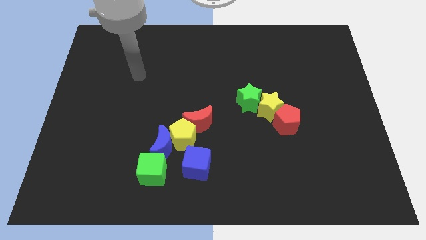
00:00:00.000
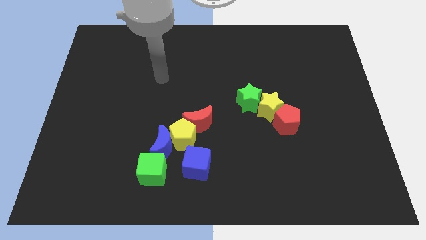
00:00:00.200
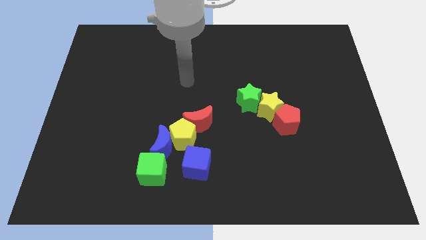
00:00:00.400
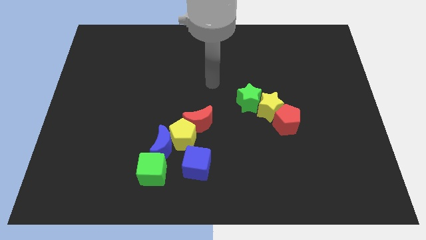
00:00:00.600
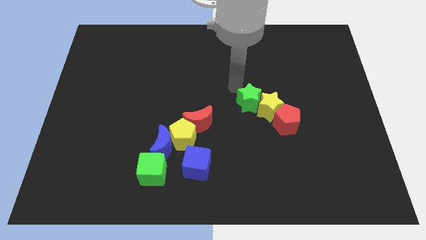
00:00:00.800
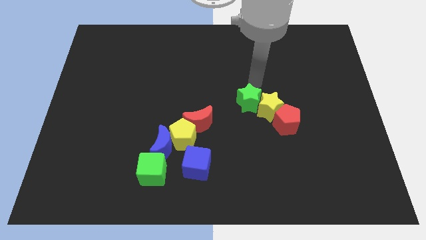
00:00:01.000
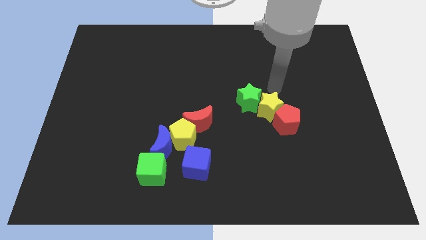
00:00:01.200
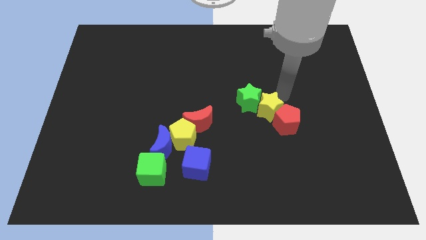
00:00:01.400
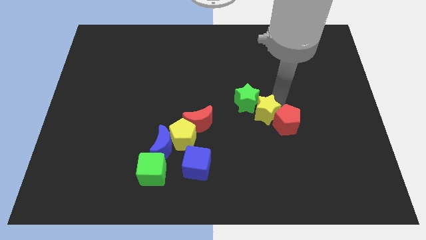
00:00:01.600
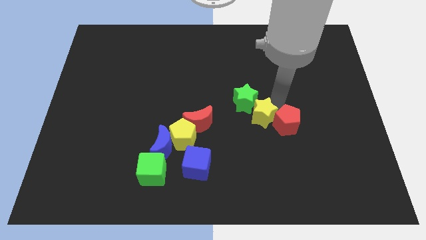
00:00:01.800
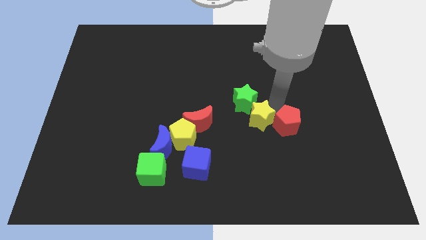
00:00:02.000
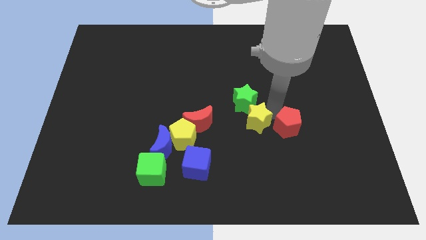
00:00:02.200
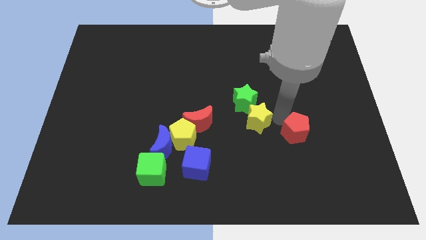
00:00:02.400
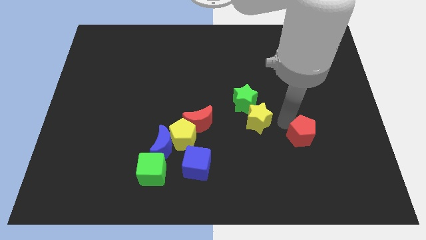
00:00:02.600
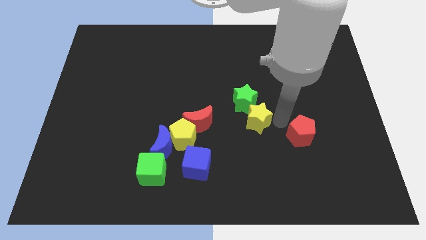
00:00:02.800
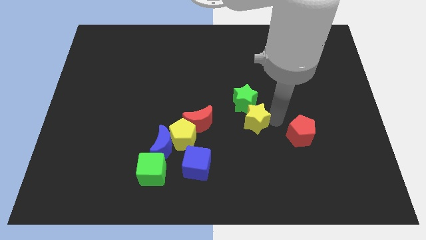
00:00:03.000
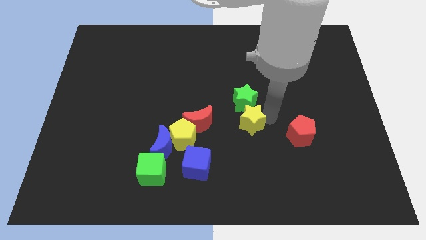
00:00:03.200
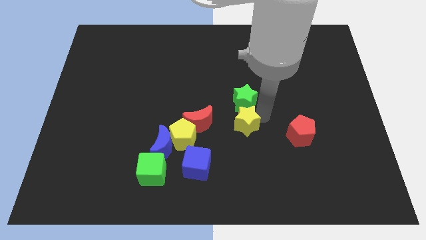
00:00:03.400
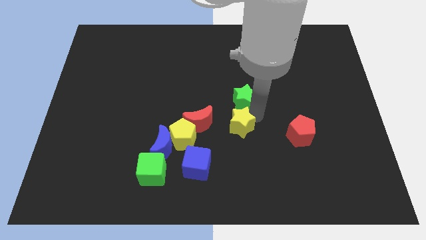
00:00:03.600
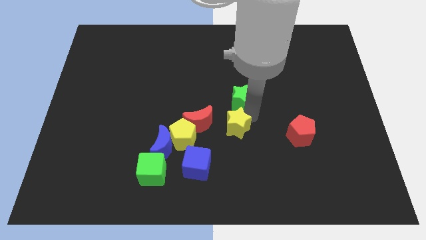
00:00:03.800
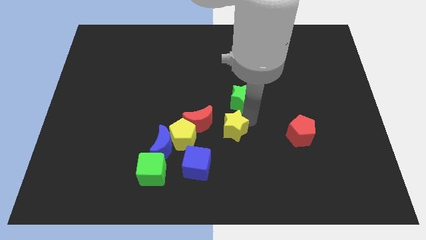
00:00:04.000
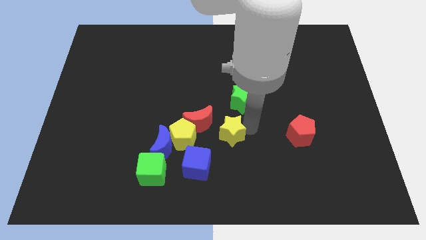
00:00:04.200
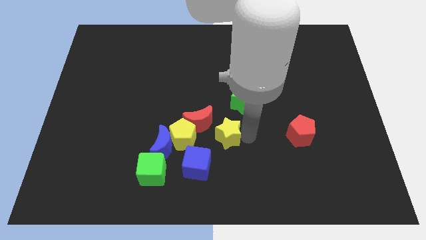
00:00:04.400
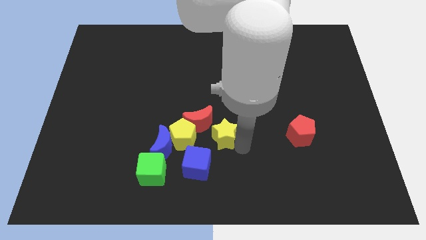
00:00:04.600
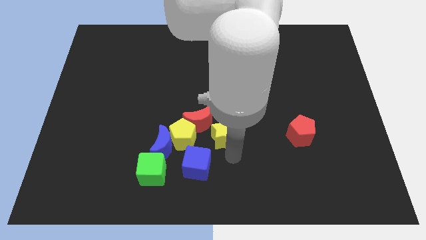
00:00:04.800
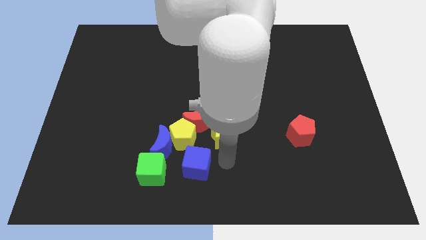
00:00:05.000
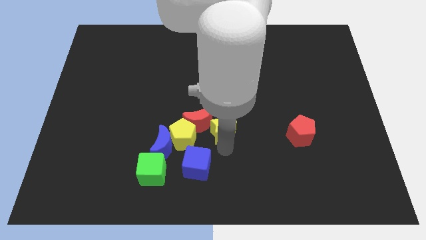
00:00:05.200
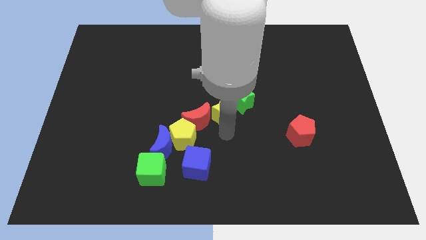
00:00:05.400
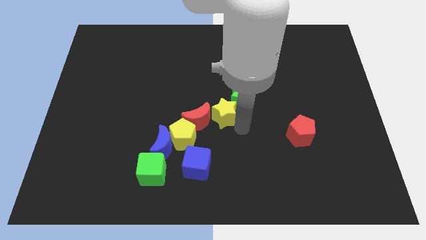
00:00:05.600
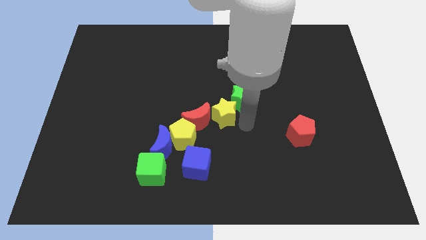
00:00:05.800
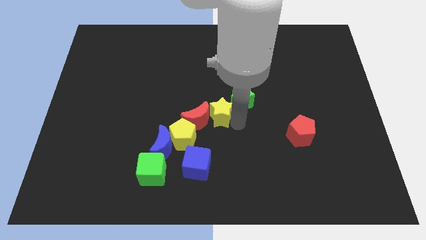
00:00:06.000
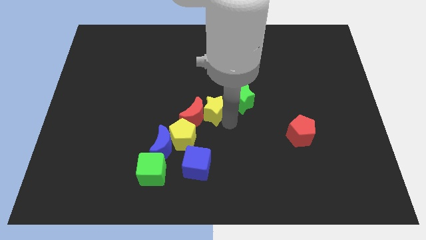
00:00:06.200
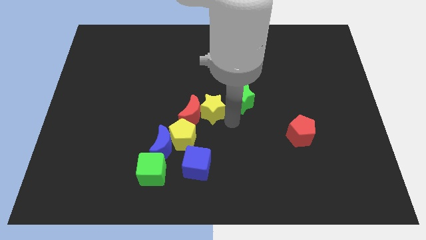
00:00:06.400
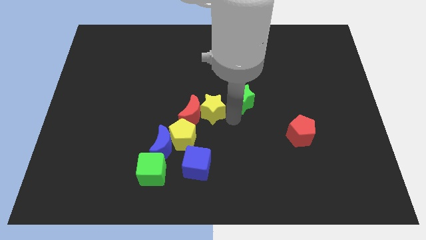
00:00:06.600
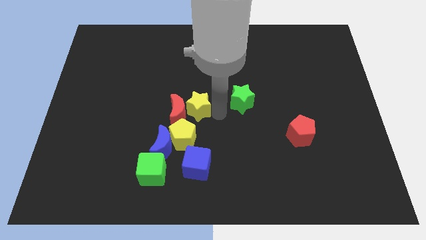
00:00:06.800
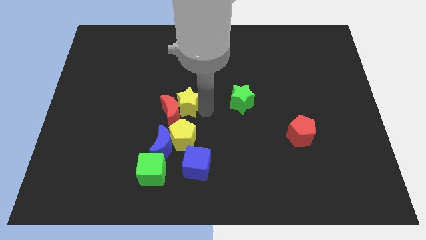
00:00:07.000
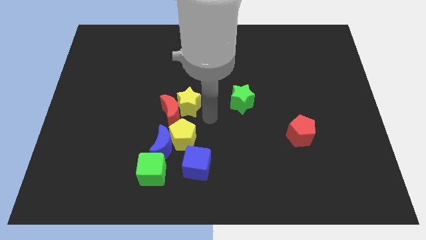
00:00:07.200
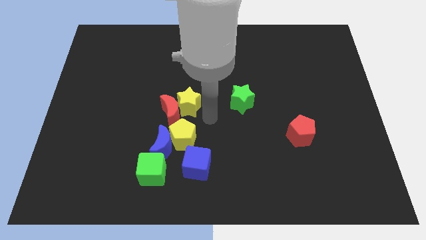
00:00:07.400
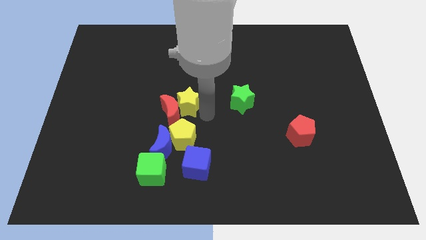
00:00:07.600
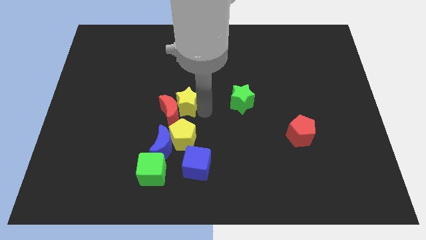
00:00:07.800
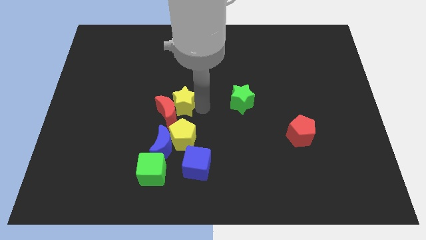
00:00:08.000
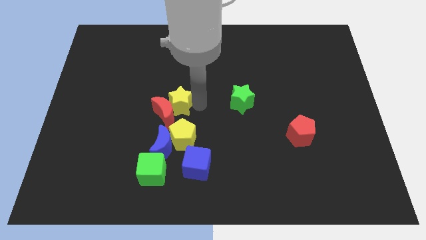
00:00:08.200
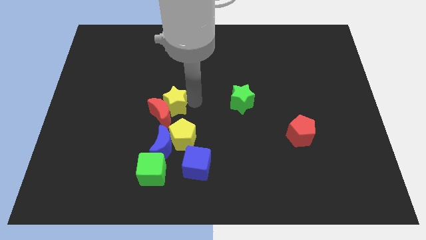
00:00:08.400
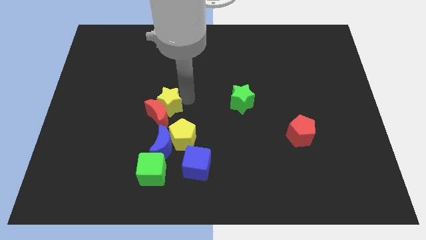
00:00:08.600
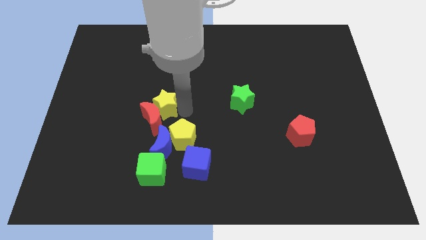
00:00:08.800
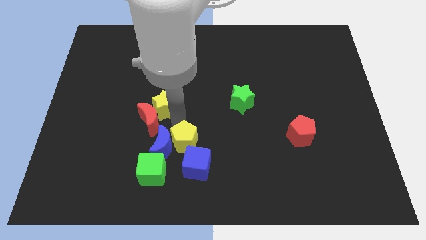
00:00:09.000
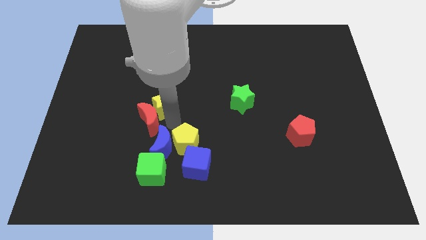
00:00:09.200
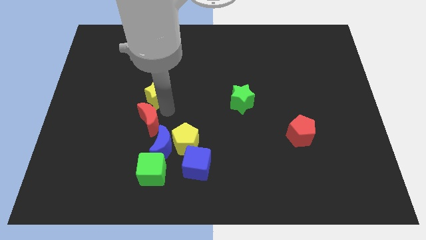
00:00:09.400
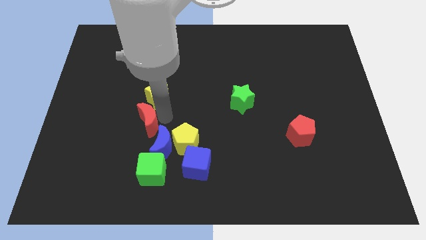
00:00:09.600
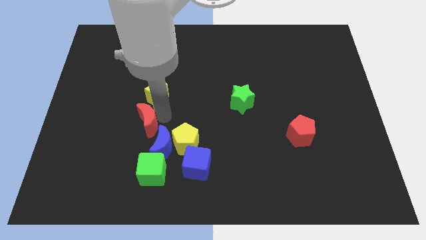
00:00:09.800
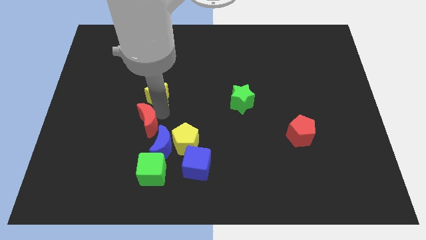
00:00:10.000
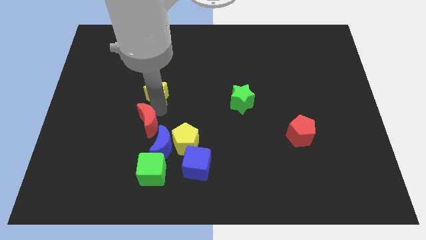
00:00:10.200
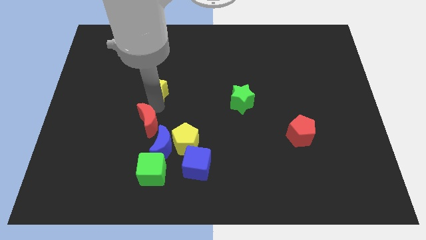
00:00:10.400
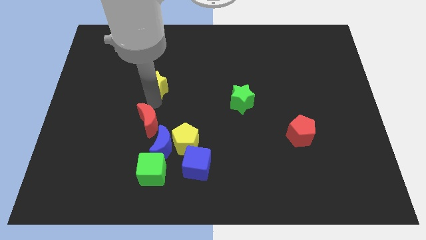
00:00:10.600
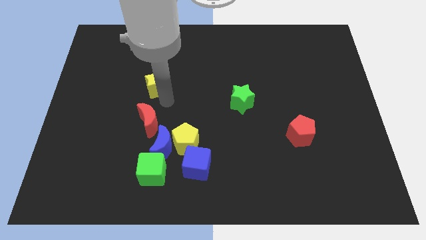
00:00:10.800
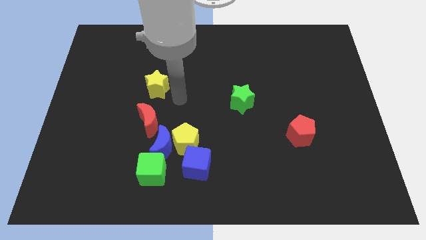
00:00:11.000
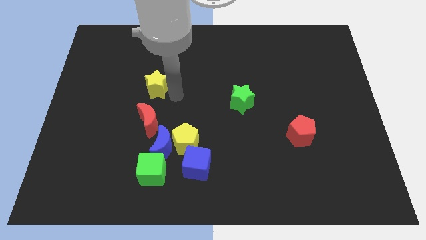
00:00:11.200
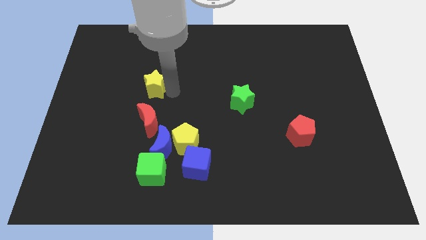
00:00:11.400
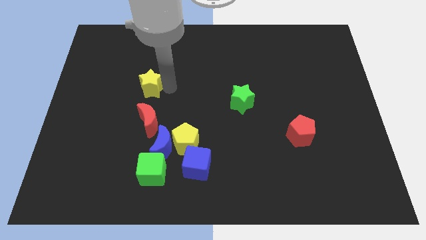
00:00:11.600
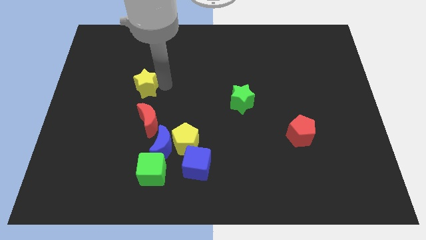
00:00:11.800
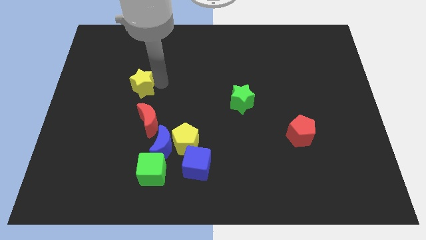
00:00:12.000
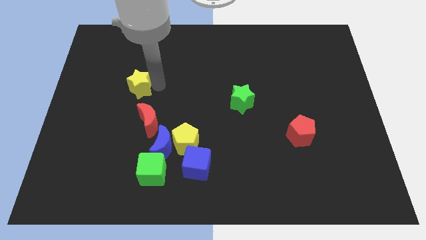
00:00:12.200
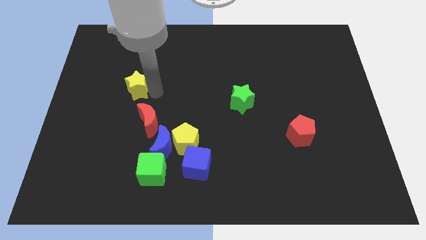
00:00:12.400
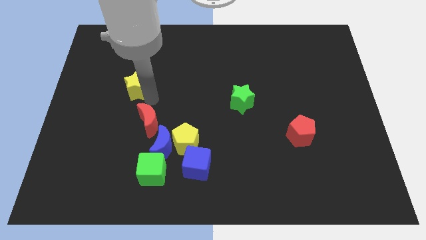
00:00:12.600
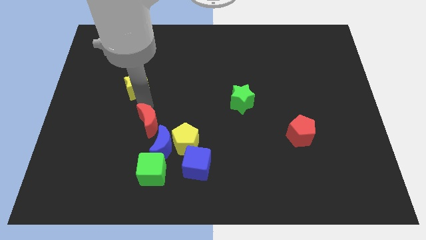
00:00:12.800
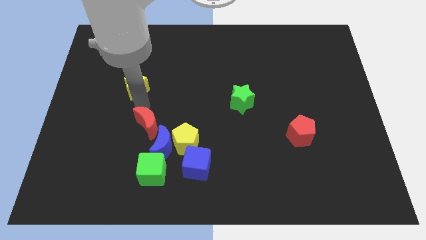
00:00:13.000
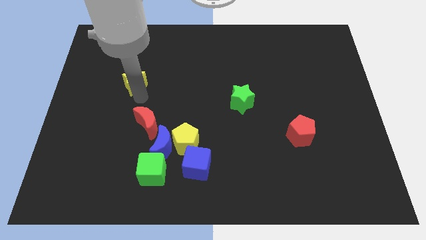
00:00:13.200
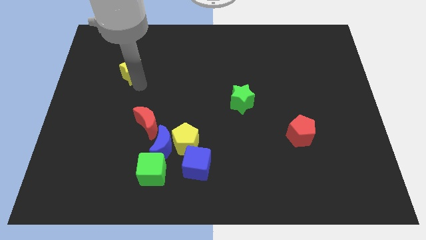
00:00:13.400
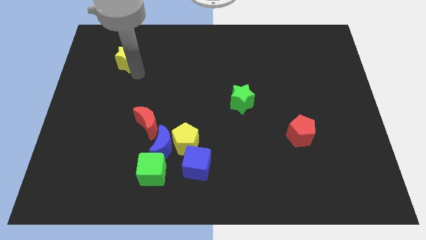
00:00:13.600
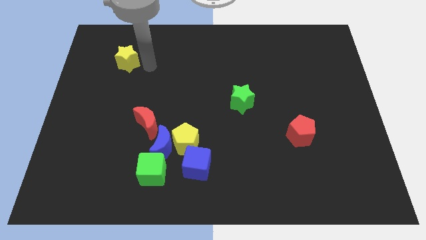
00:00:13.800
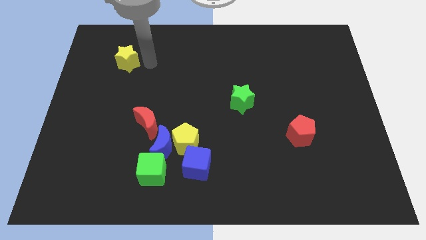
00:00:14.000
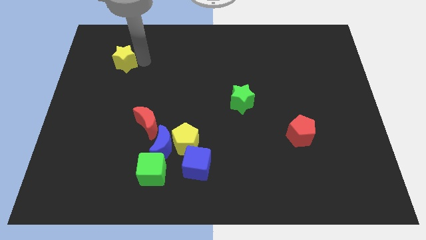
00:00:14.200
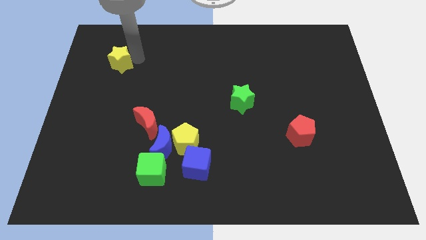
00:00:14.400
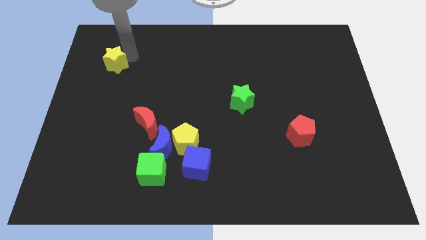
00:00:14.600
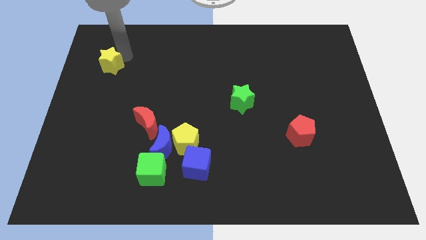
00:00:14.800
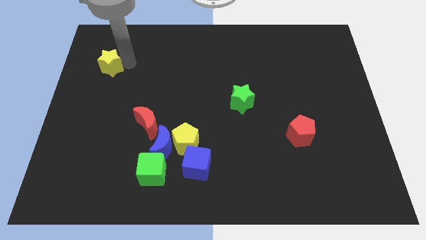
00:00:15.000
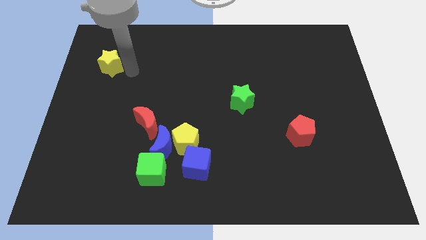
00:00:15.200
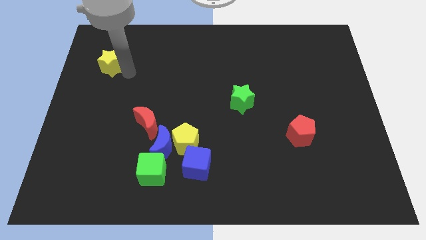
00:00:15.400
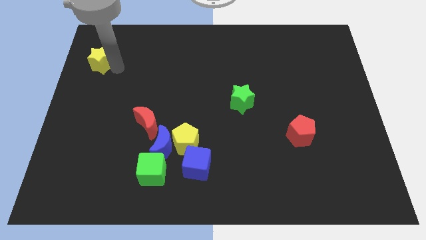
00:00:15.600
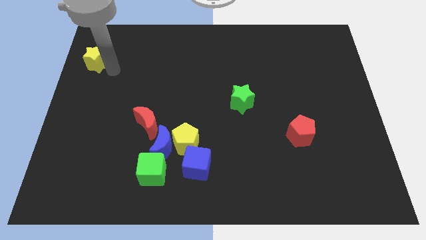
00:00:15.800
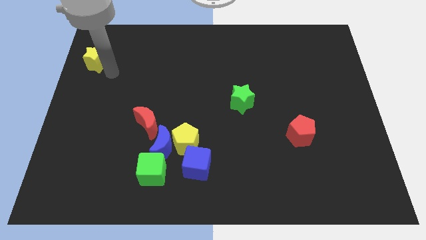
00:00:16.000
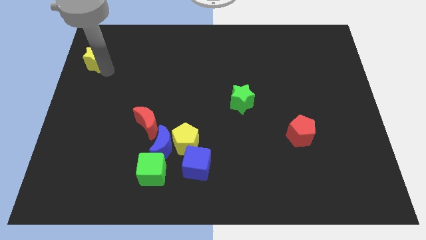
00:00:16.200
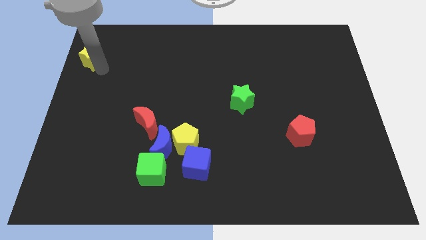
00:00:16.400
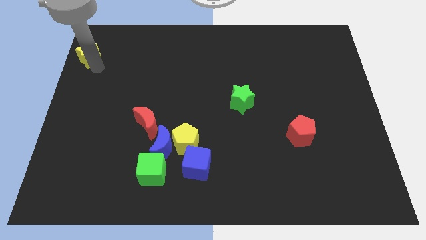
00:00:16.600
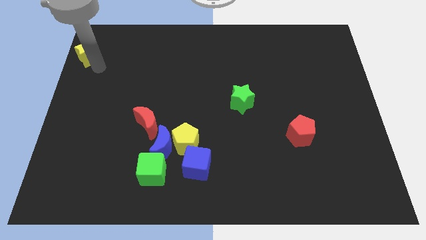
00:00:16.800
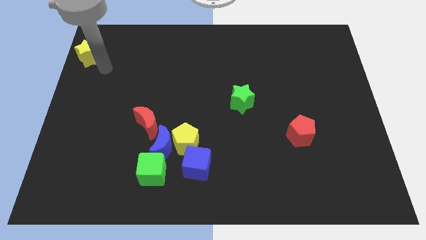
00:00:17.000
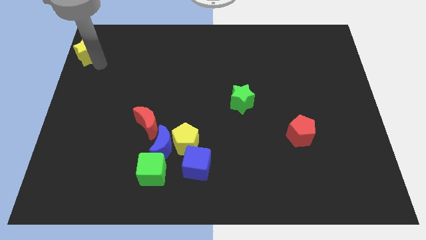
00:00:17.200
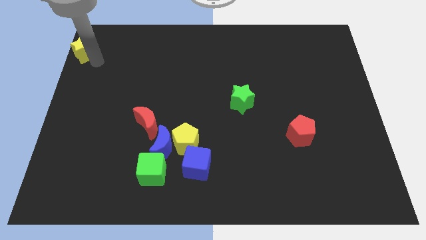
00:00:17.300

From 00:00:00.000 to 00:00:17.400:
put the yellow star to the top left corner
